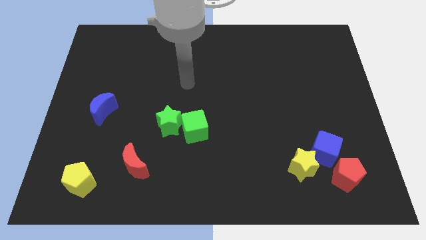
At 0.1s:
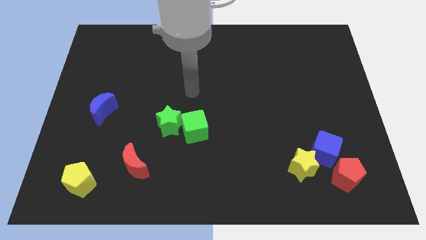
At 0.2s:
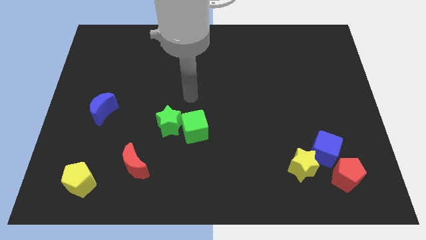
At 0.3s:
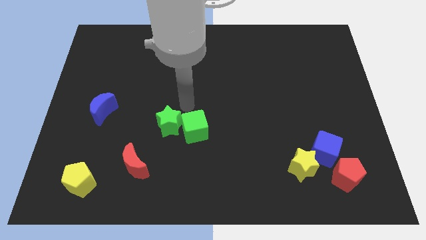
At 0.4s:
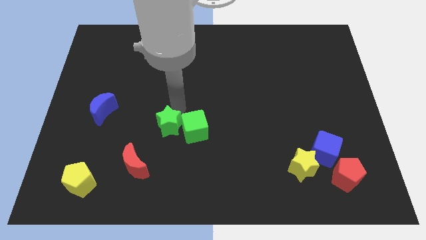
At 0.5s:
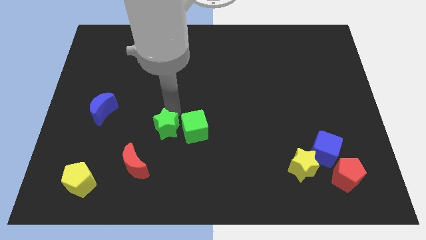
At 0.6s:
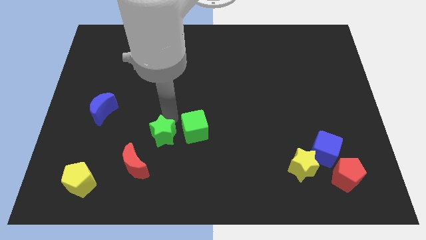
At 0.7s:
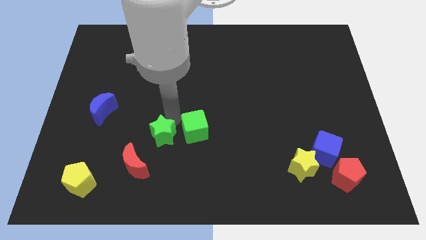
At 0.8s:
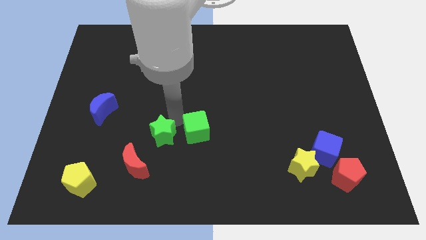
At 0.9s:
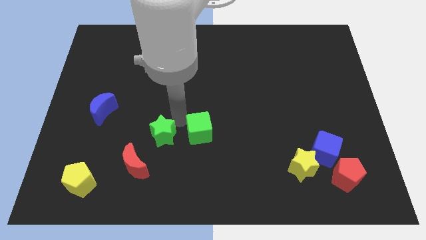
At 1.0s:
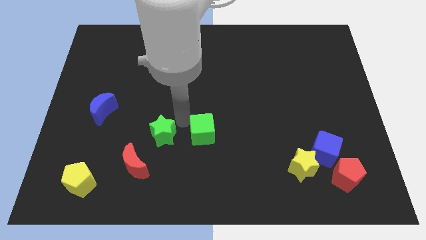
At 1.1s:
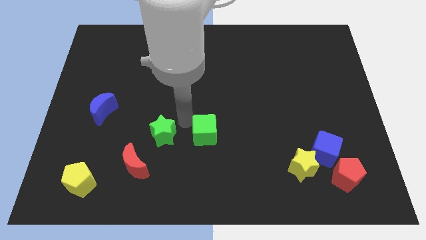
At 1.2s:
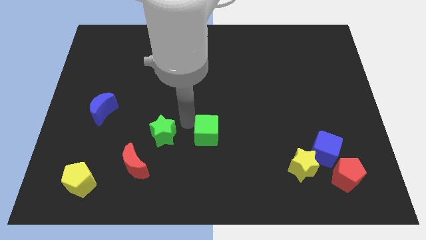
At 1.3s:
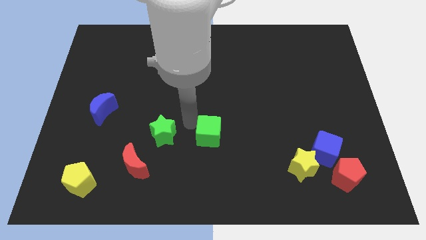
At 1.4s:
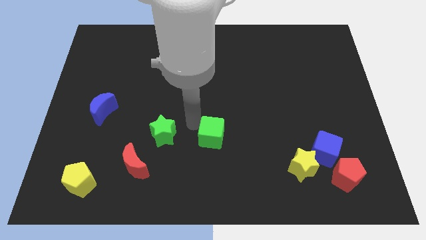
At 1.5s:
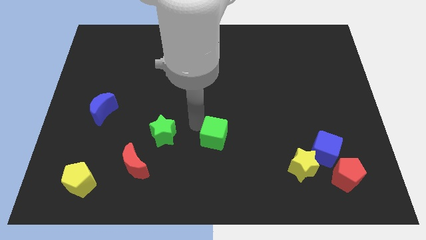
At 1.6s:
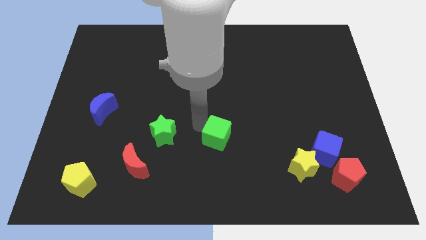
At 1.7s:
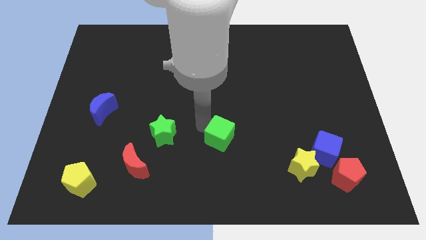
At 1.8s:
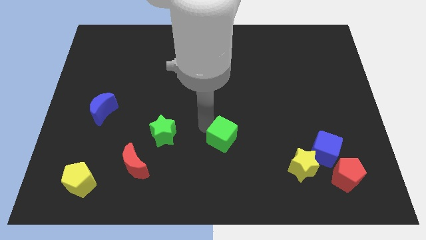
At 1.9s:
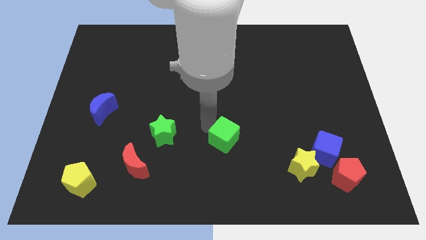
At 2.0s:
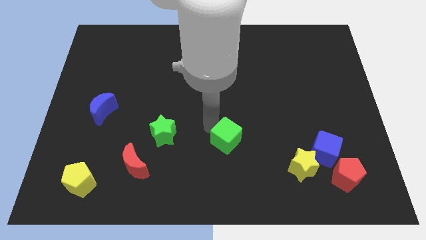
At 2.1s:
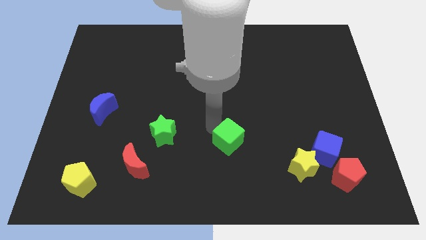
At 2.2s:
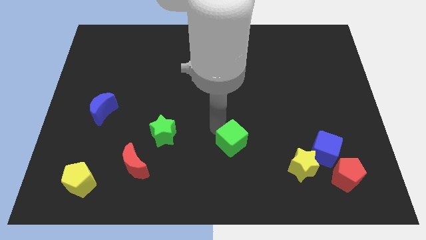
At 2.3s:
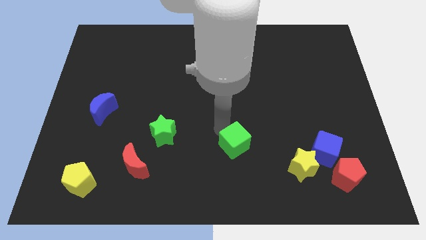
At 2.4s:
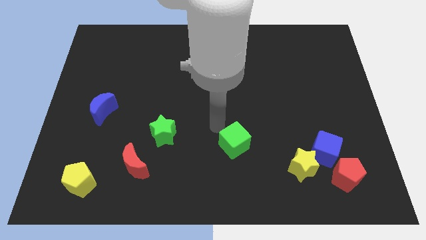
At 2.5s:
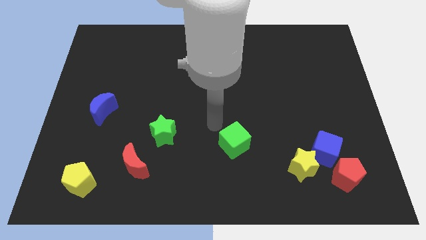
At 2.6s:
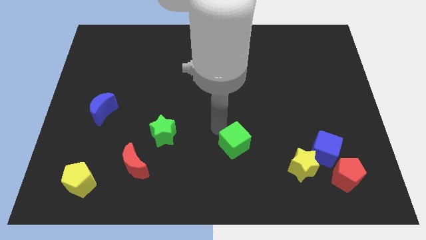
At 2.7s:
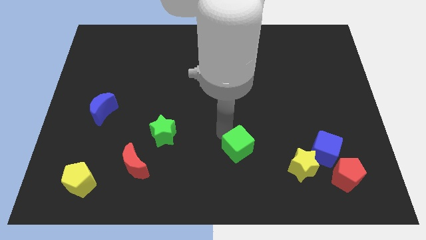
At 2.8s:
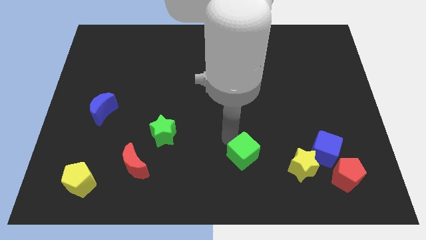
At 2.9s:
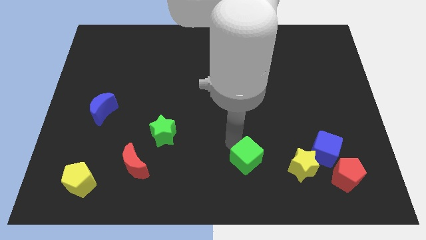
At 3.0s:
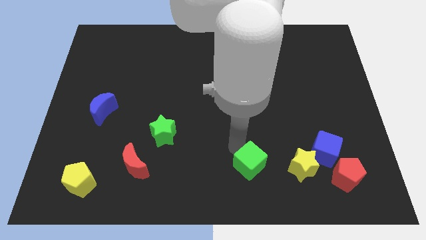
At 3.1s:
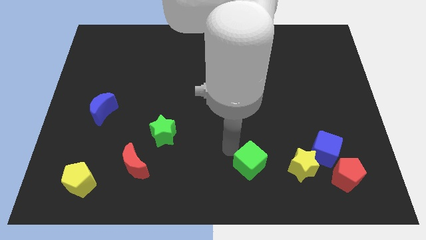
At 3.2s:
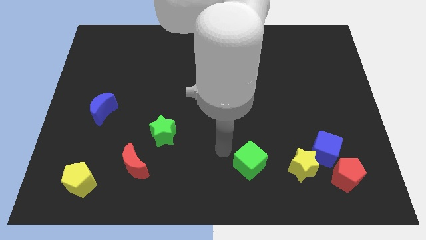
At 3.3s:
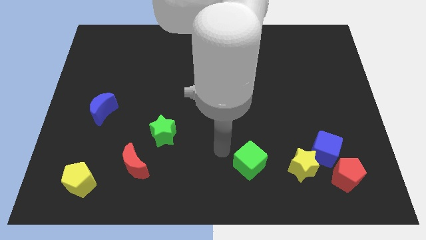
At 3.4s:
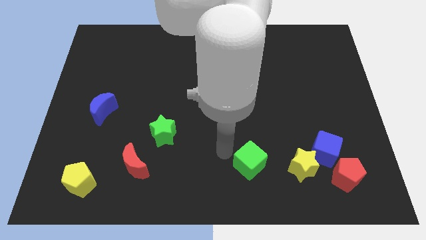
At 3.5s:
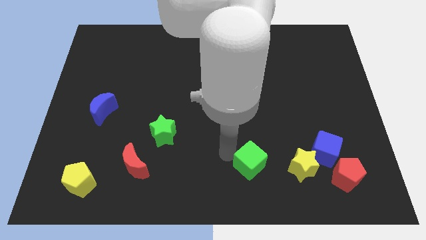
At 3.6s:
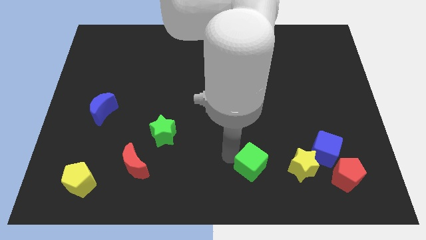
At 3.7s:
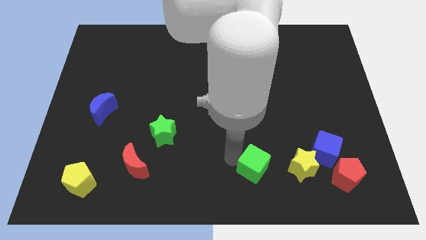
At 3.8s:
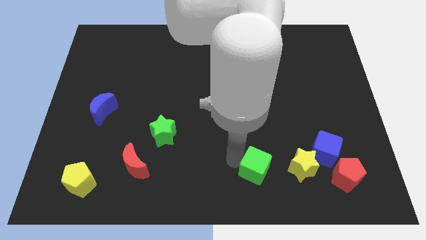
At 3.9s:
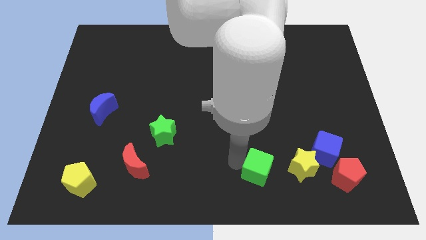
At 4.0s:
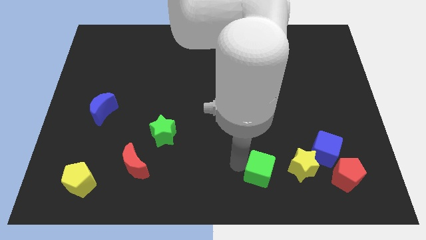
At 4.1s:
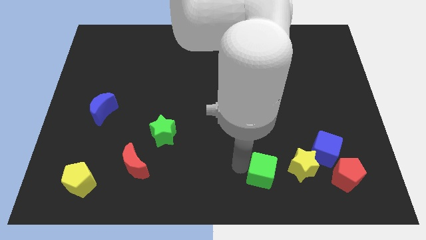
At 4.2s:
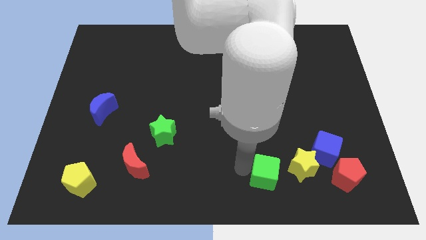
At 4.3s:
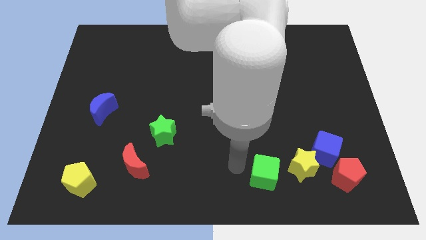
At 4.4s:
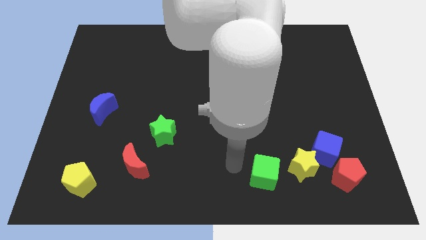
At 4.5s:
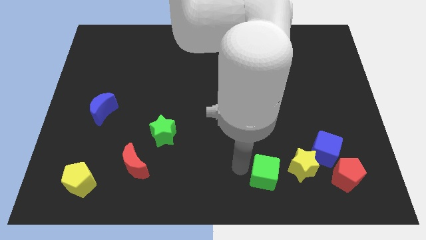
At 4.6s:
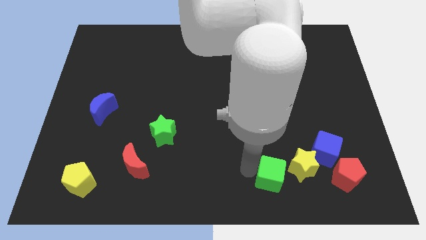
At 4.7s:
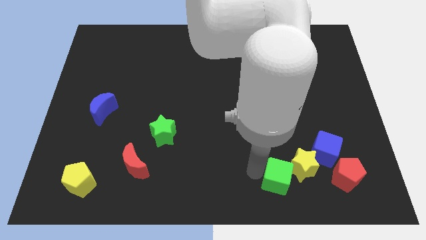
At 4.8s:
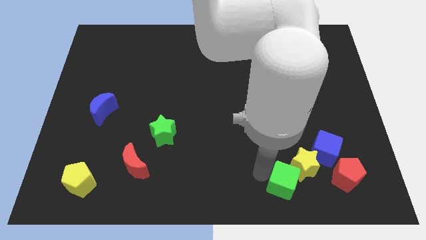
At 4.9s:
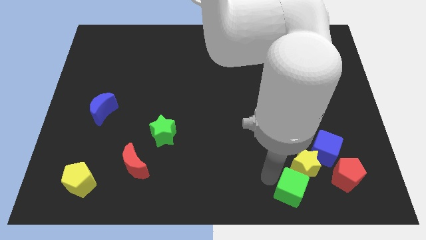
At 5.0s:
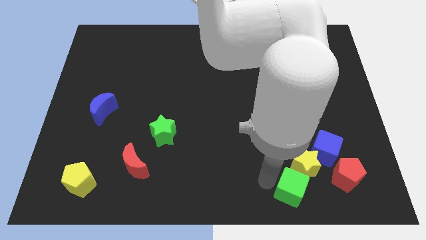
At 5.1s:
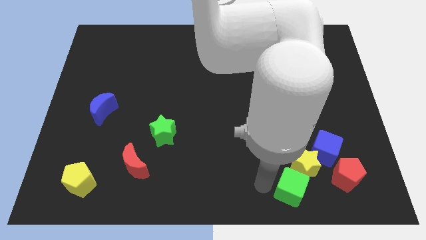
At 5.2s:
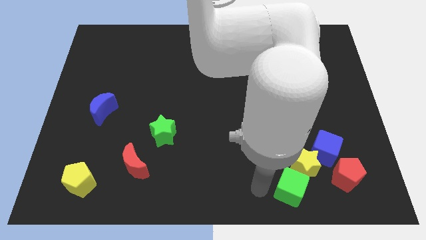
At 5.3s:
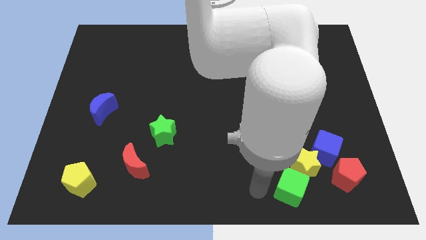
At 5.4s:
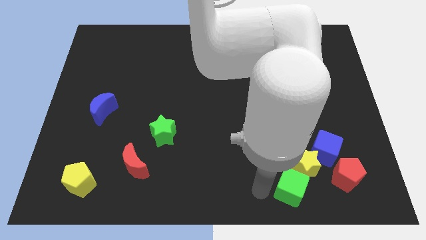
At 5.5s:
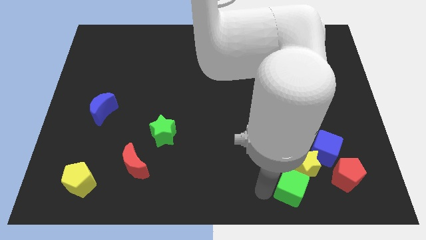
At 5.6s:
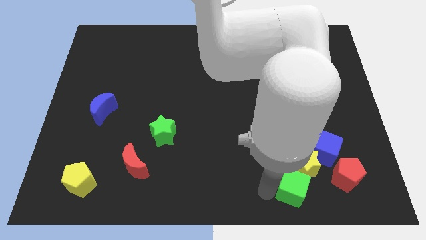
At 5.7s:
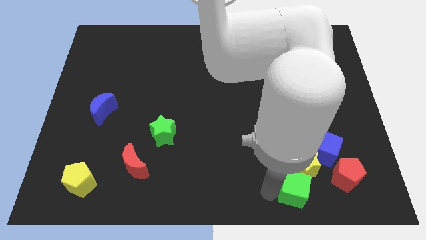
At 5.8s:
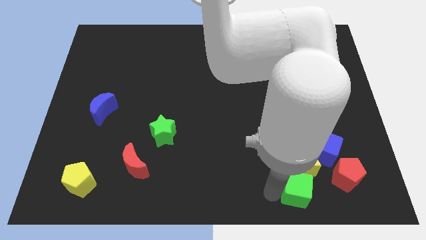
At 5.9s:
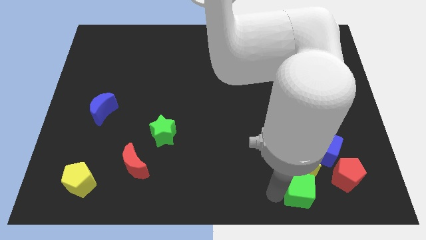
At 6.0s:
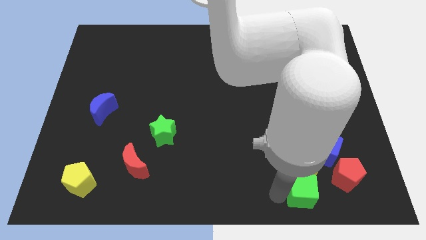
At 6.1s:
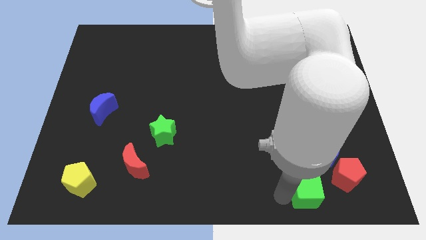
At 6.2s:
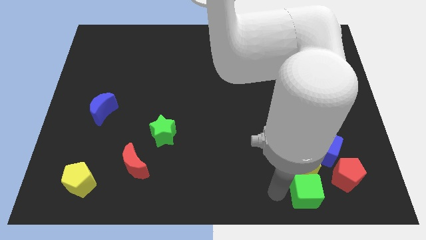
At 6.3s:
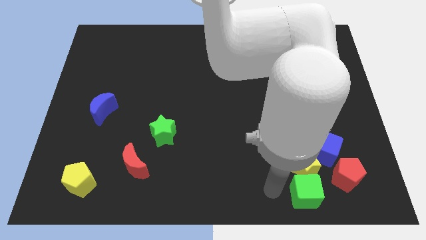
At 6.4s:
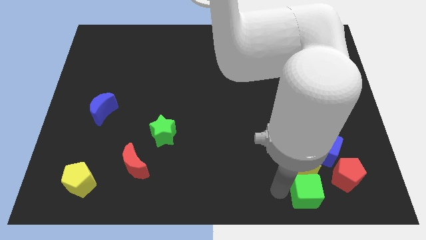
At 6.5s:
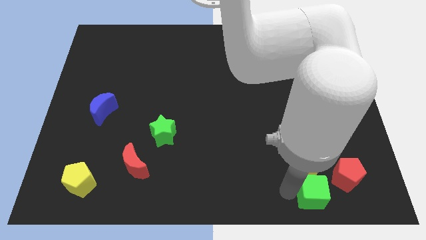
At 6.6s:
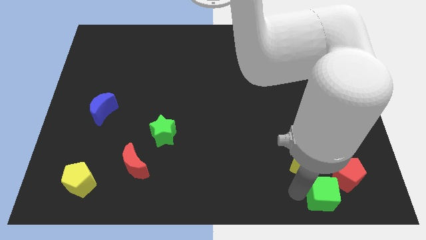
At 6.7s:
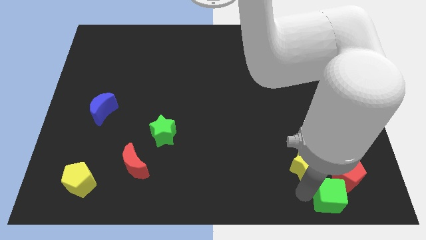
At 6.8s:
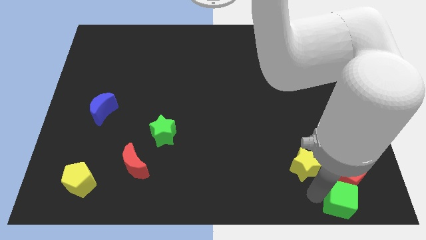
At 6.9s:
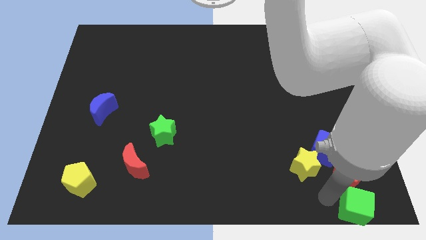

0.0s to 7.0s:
slide the green cube to the lower right corner
